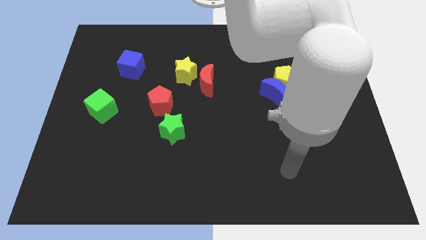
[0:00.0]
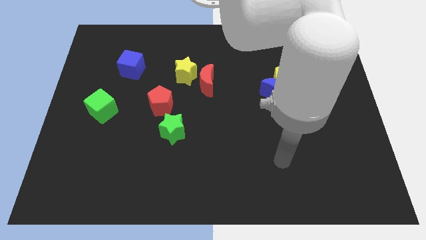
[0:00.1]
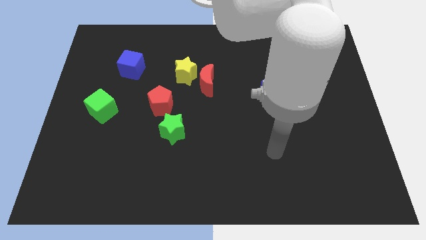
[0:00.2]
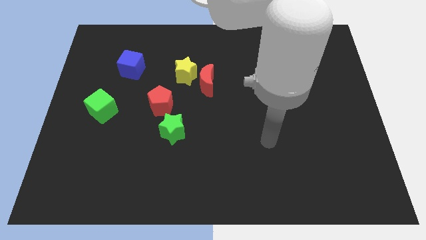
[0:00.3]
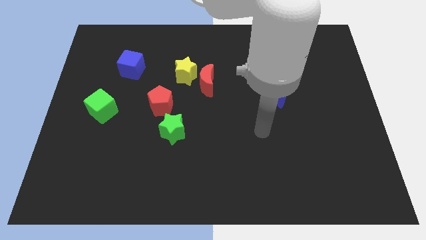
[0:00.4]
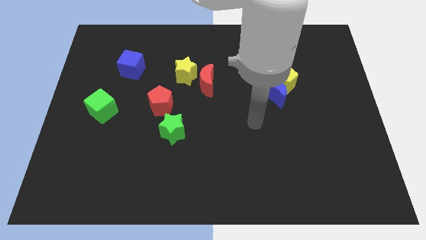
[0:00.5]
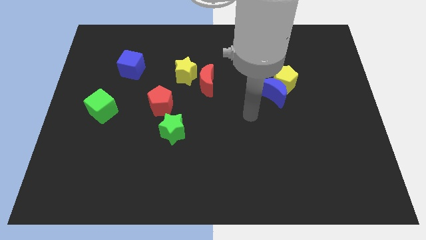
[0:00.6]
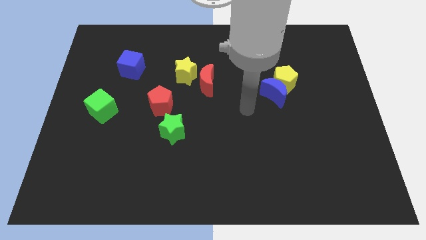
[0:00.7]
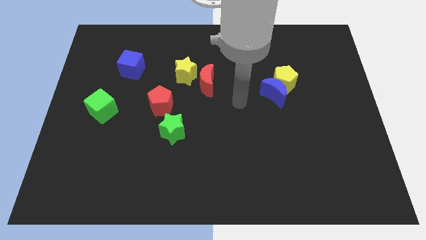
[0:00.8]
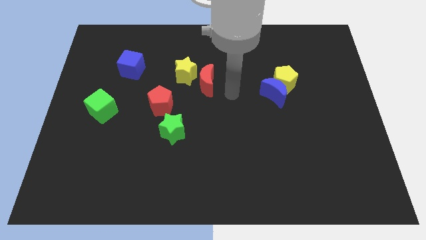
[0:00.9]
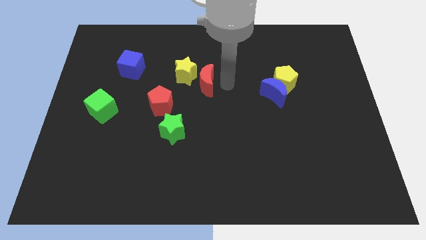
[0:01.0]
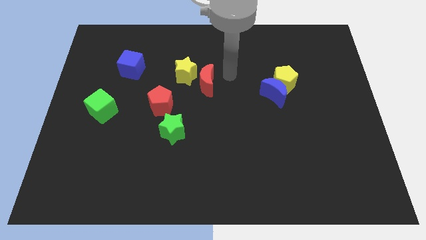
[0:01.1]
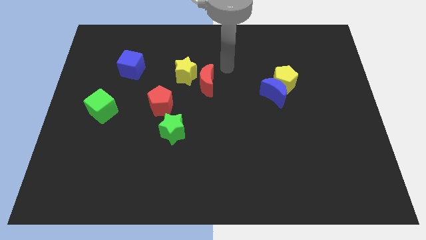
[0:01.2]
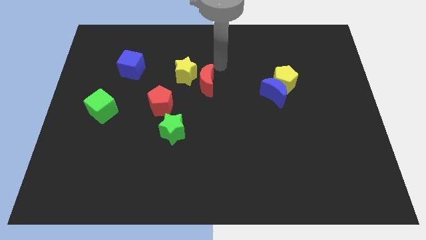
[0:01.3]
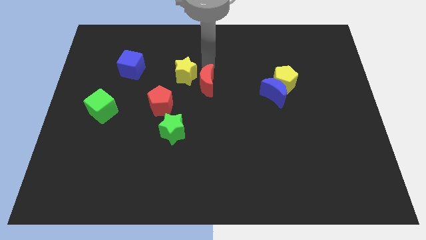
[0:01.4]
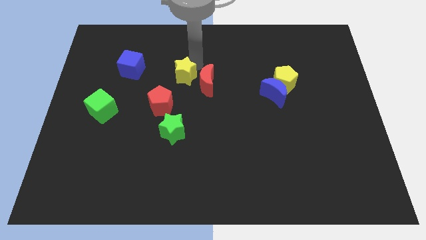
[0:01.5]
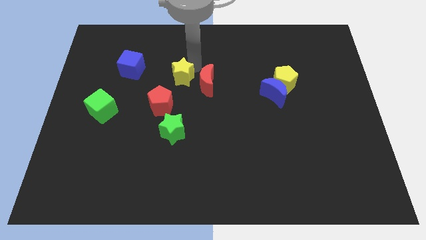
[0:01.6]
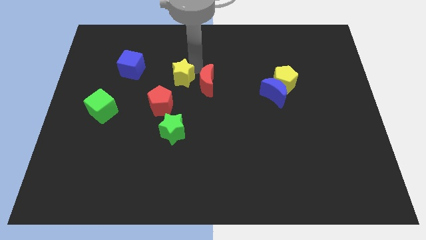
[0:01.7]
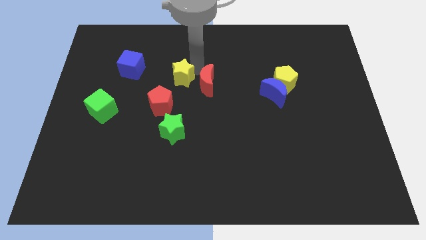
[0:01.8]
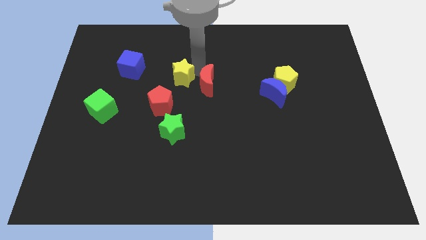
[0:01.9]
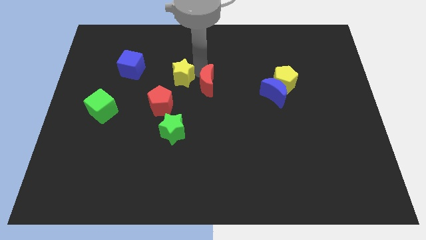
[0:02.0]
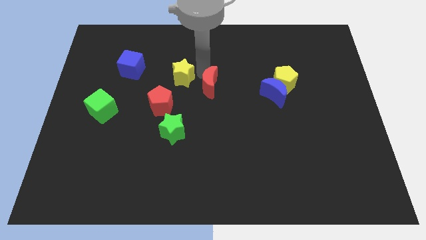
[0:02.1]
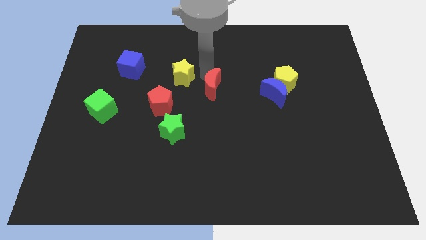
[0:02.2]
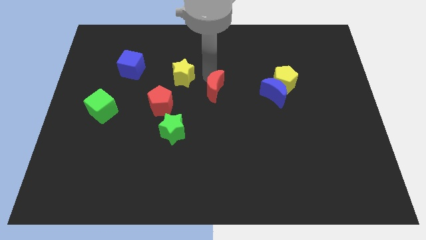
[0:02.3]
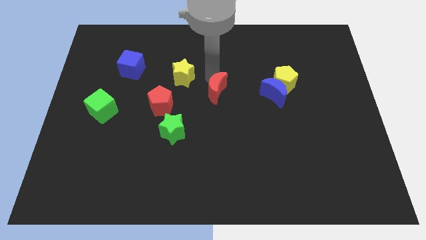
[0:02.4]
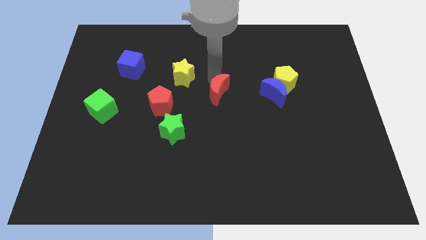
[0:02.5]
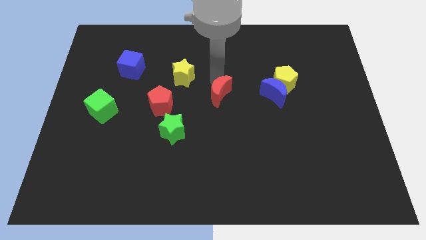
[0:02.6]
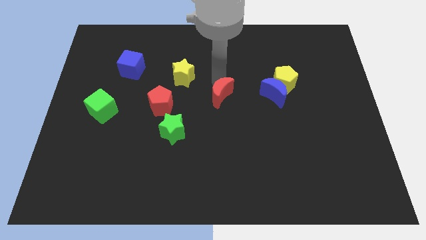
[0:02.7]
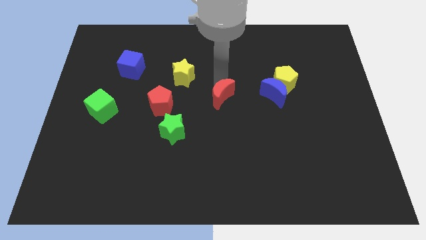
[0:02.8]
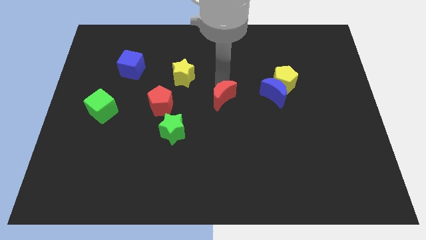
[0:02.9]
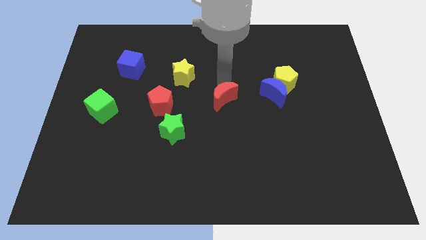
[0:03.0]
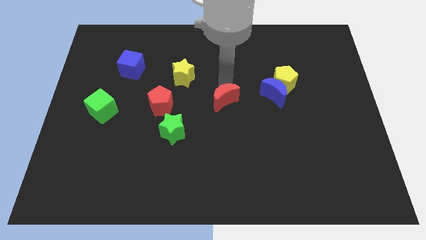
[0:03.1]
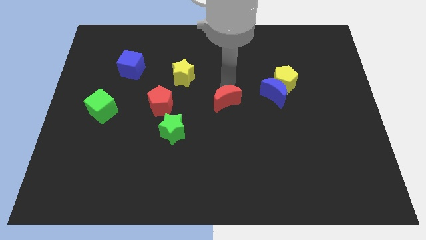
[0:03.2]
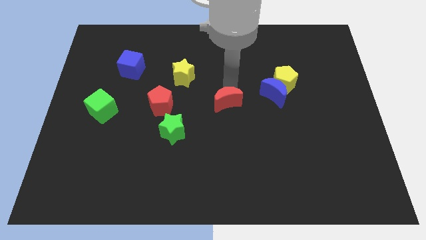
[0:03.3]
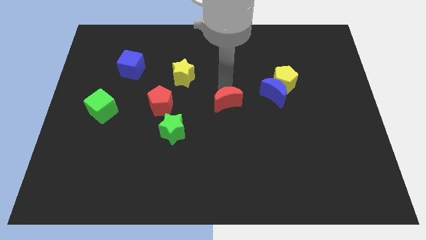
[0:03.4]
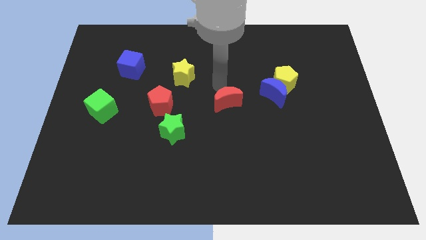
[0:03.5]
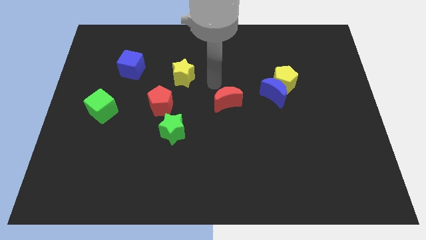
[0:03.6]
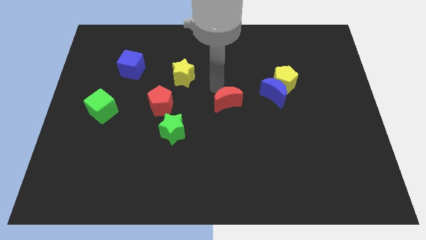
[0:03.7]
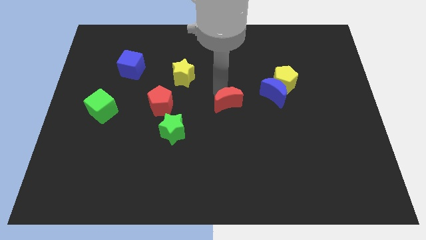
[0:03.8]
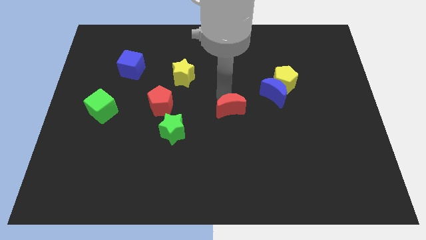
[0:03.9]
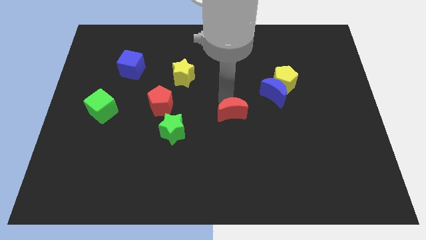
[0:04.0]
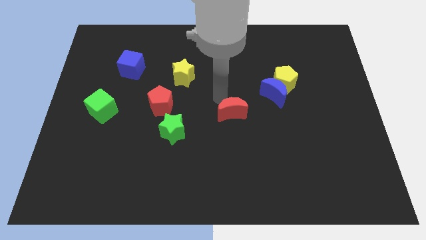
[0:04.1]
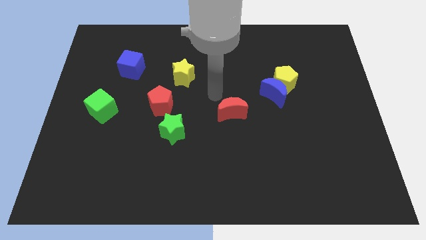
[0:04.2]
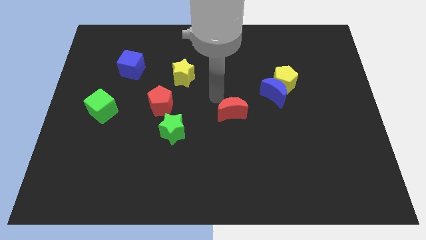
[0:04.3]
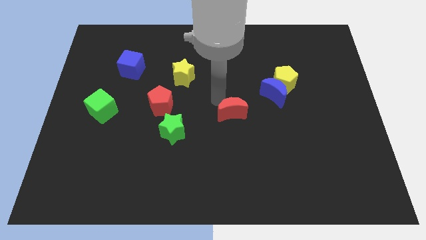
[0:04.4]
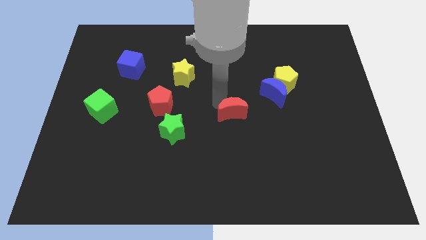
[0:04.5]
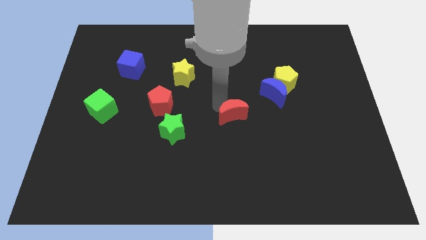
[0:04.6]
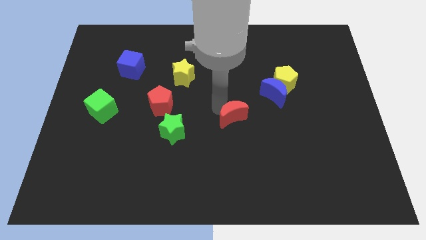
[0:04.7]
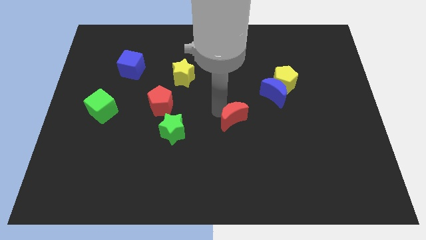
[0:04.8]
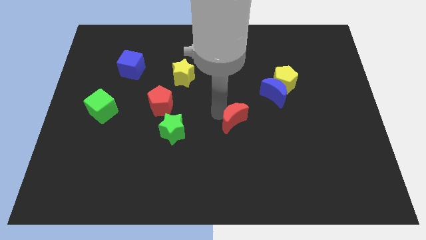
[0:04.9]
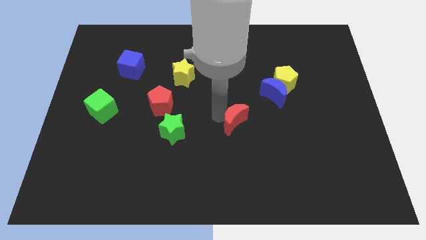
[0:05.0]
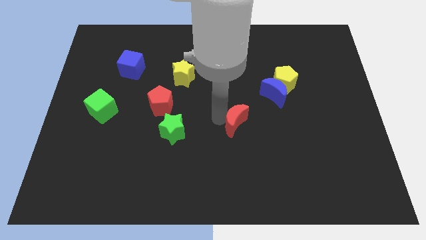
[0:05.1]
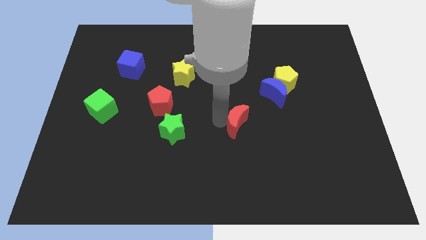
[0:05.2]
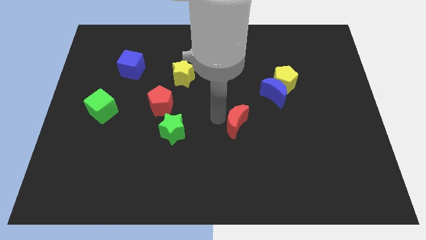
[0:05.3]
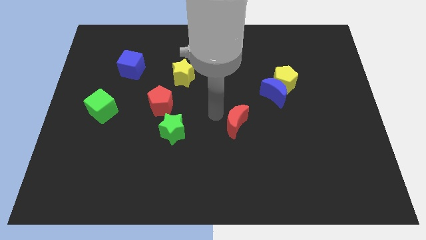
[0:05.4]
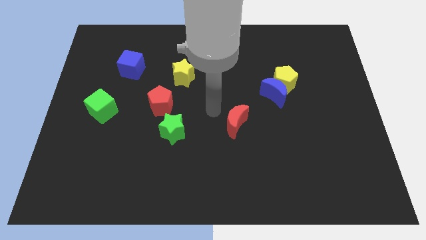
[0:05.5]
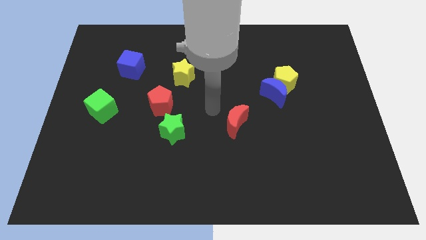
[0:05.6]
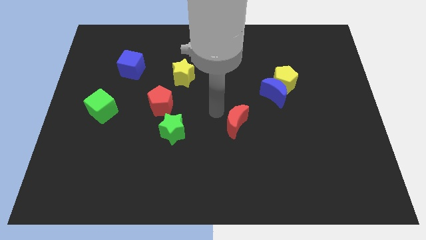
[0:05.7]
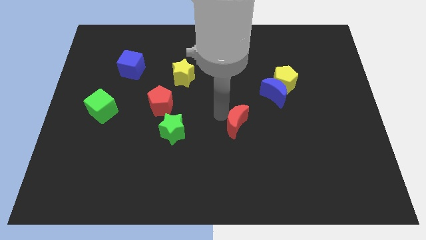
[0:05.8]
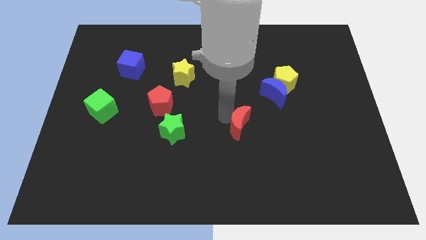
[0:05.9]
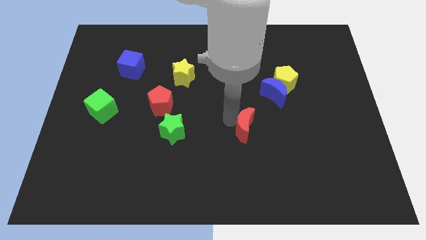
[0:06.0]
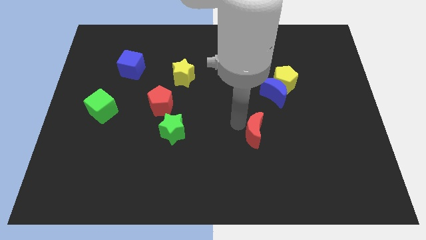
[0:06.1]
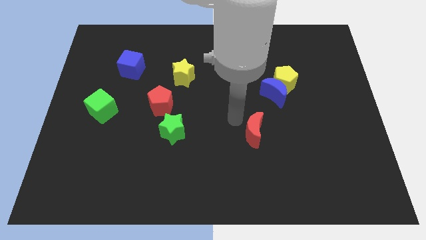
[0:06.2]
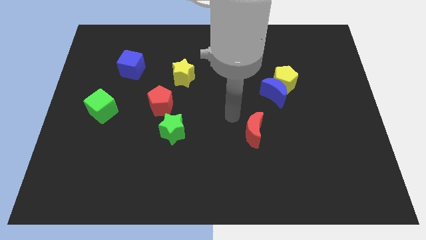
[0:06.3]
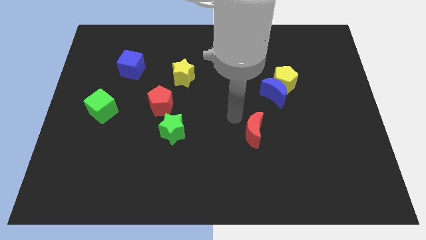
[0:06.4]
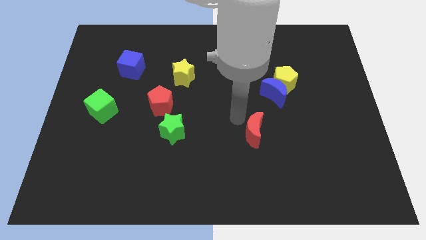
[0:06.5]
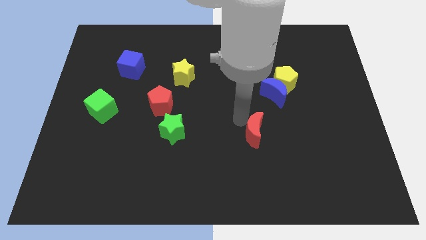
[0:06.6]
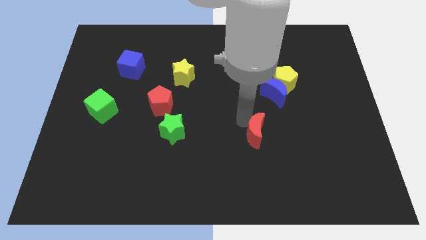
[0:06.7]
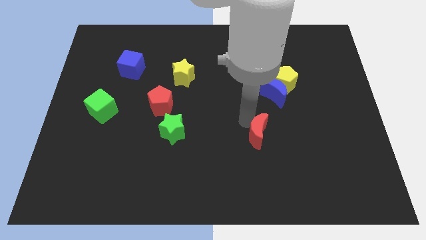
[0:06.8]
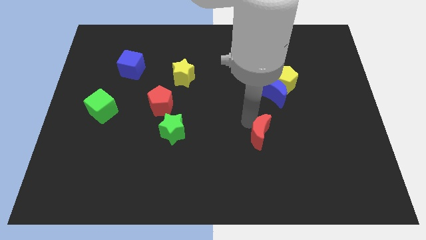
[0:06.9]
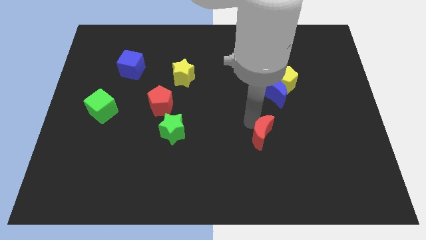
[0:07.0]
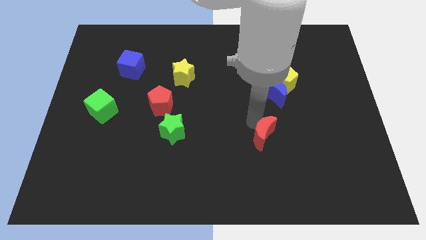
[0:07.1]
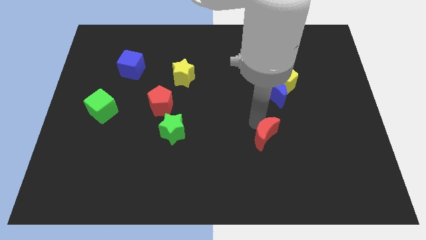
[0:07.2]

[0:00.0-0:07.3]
move the red moon down and then right

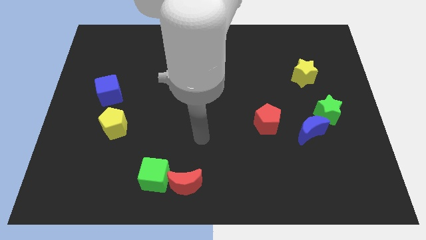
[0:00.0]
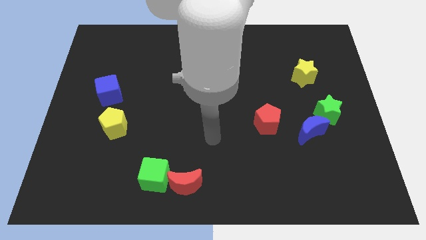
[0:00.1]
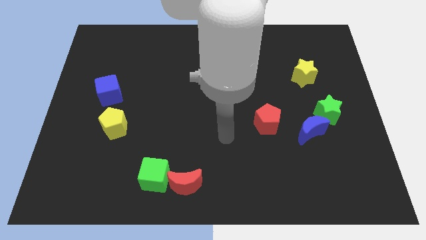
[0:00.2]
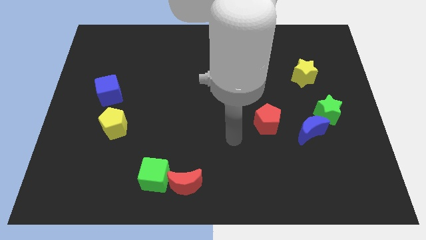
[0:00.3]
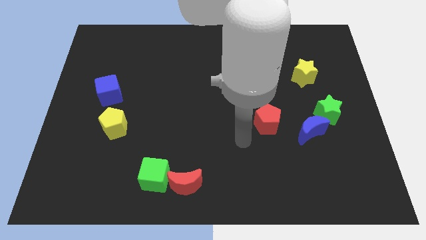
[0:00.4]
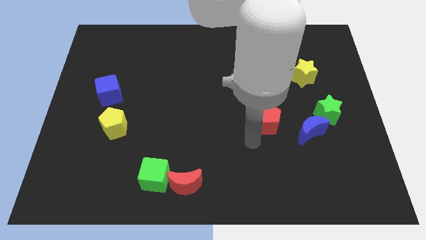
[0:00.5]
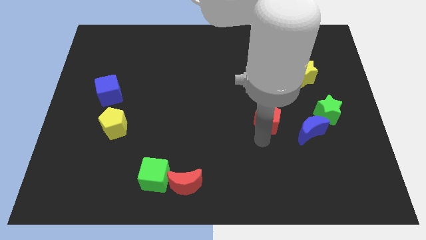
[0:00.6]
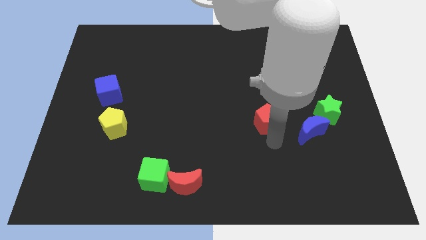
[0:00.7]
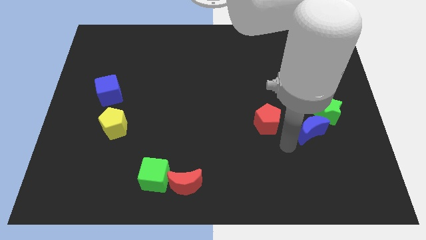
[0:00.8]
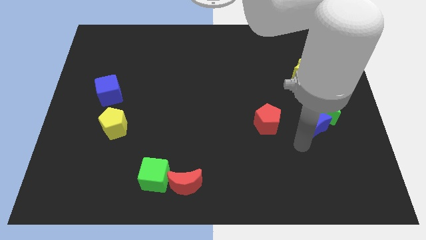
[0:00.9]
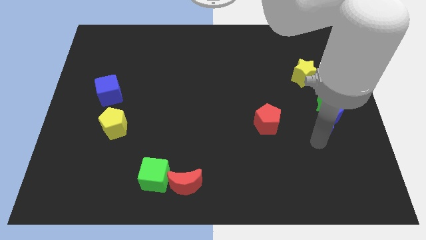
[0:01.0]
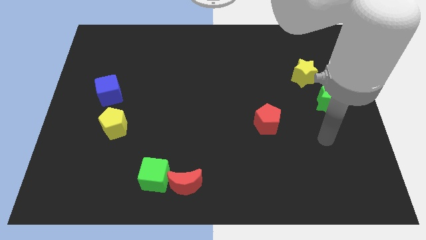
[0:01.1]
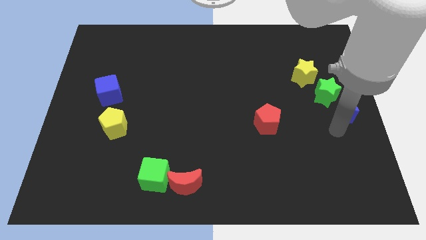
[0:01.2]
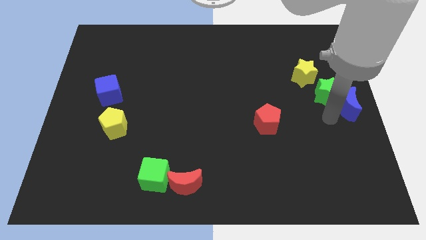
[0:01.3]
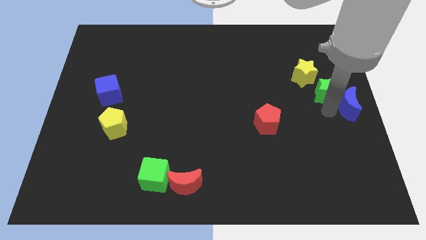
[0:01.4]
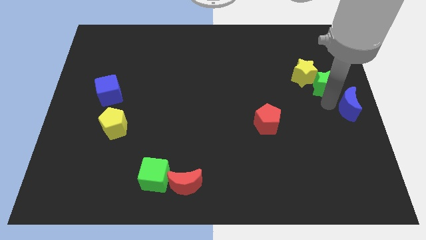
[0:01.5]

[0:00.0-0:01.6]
slightly push the green star upwards
